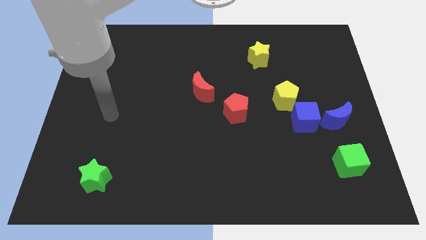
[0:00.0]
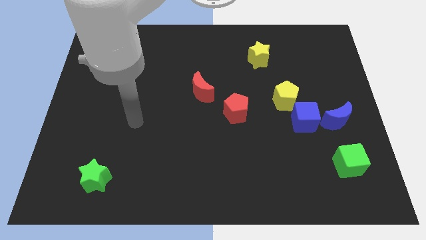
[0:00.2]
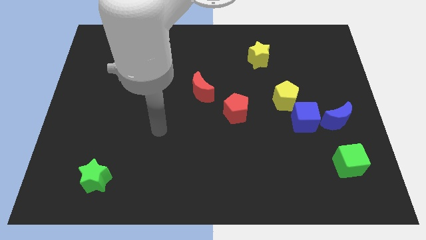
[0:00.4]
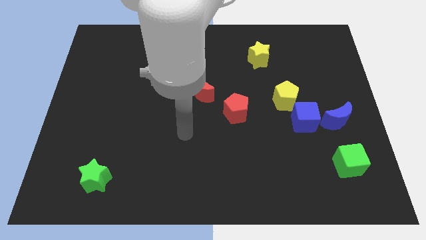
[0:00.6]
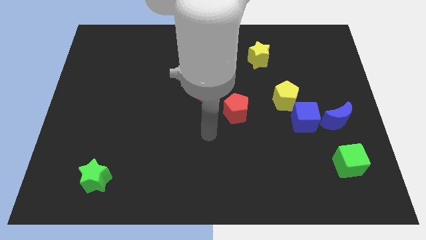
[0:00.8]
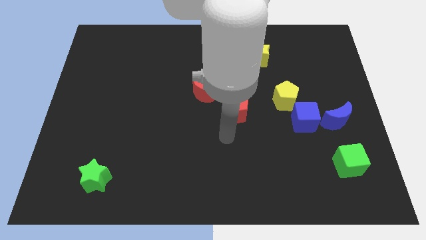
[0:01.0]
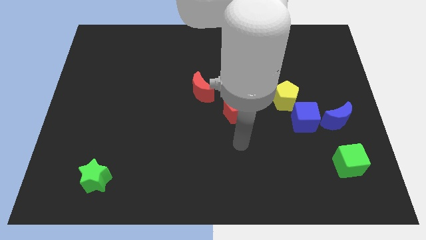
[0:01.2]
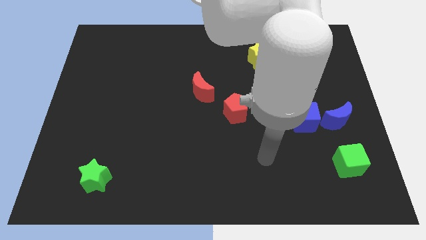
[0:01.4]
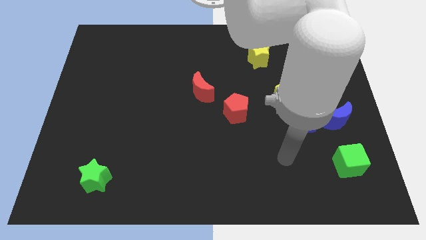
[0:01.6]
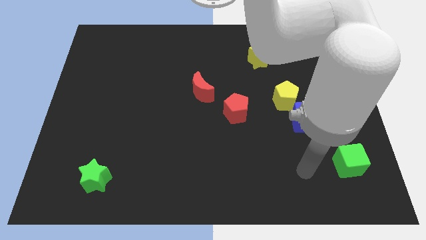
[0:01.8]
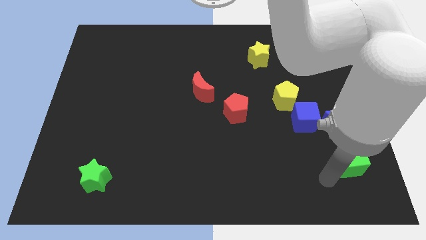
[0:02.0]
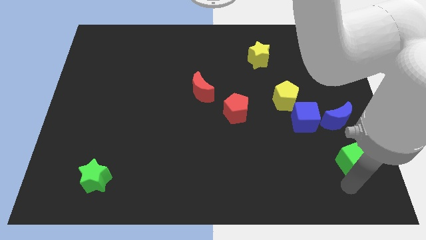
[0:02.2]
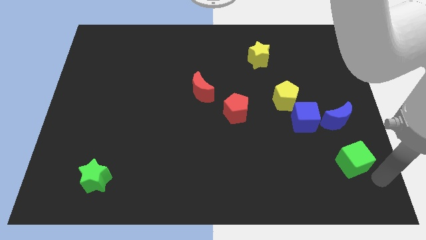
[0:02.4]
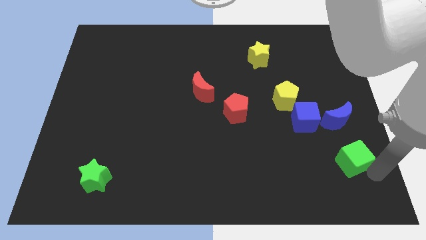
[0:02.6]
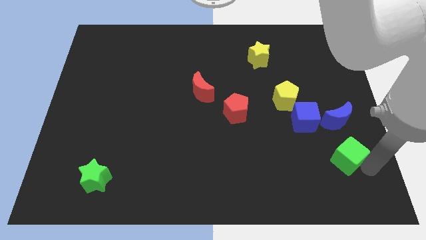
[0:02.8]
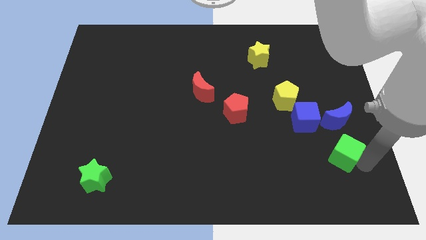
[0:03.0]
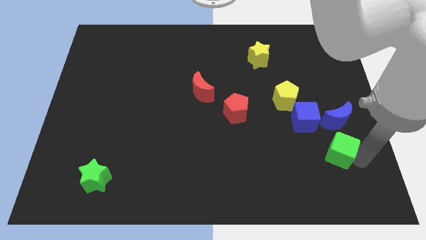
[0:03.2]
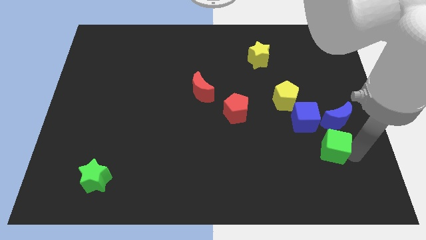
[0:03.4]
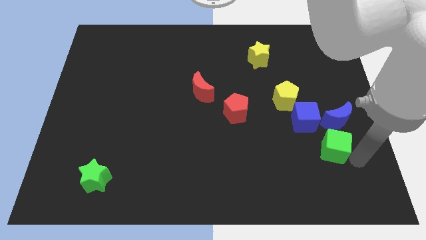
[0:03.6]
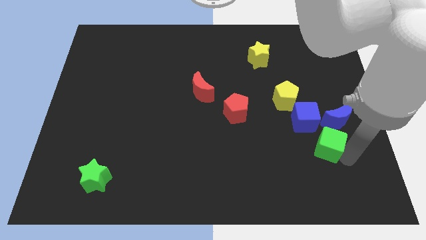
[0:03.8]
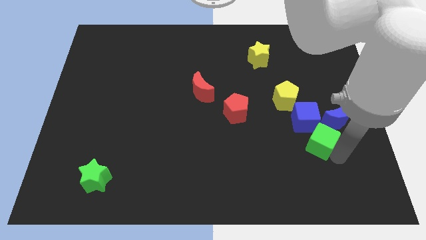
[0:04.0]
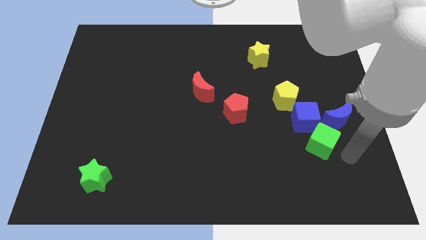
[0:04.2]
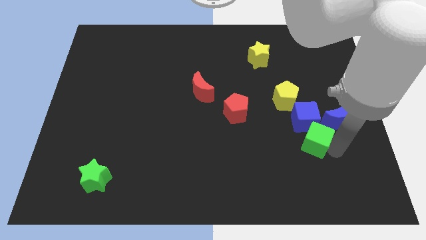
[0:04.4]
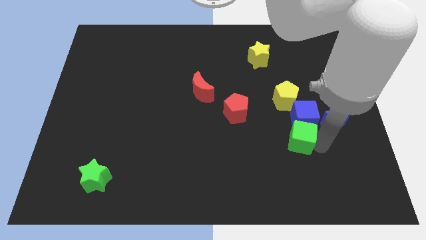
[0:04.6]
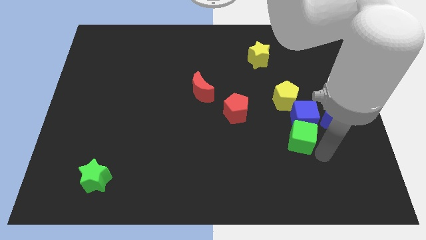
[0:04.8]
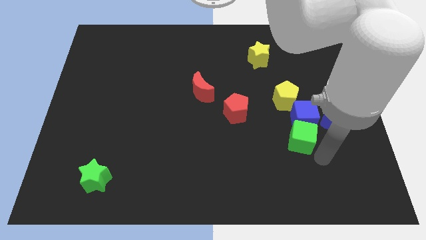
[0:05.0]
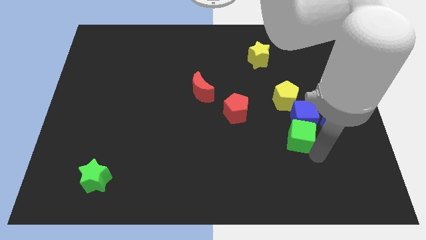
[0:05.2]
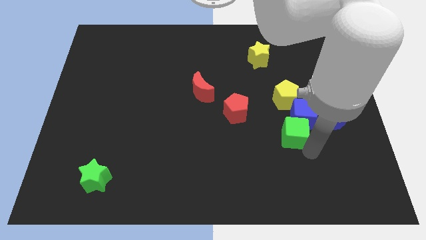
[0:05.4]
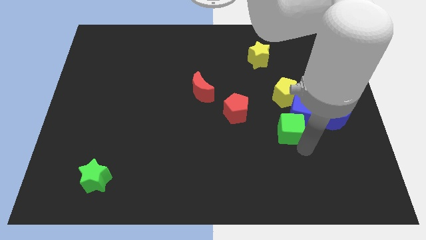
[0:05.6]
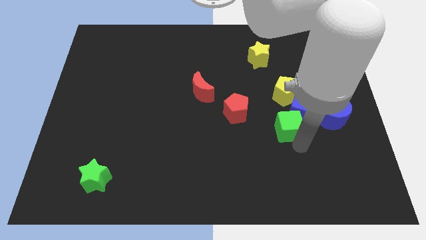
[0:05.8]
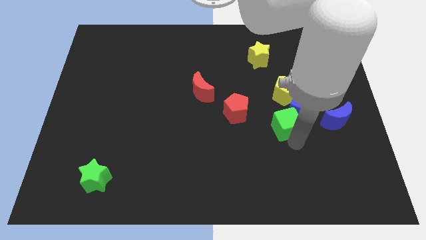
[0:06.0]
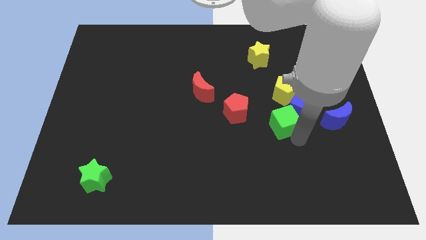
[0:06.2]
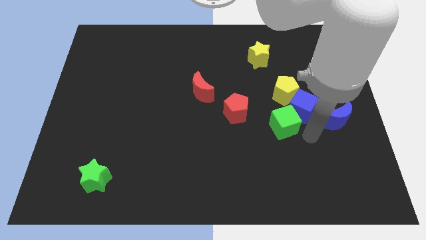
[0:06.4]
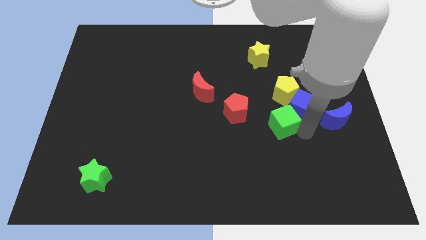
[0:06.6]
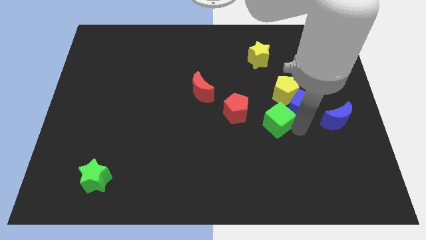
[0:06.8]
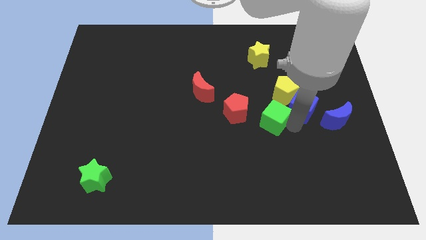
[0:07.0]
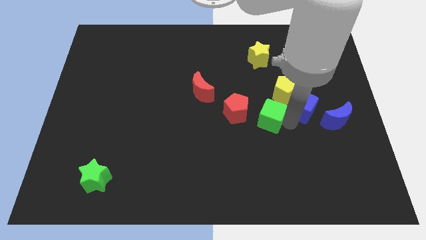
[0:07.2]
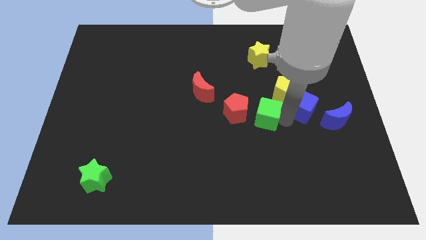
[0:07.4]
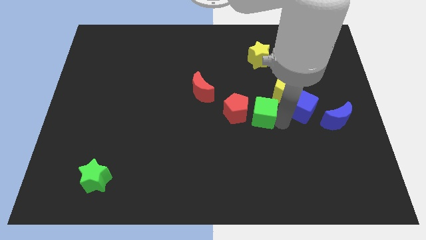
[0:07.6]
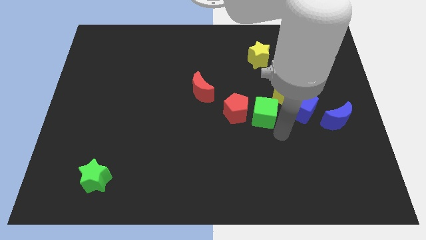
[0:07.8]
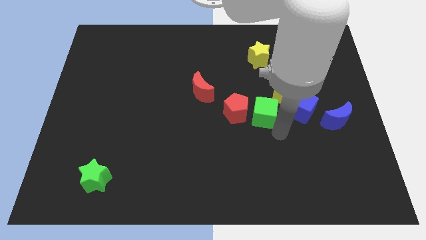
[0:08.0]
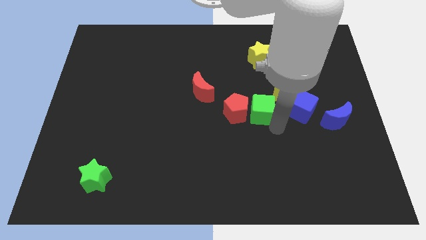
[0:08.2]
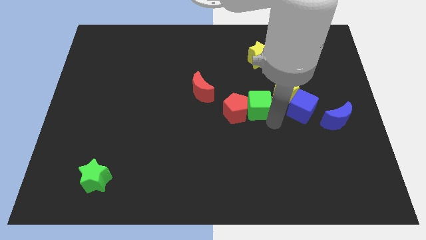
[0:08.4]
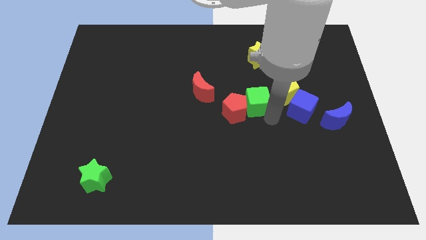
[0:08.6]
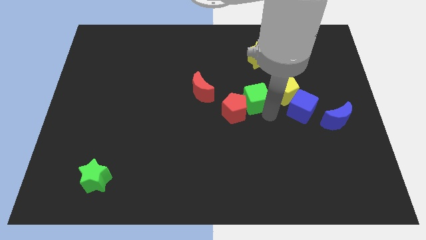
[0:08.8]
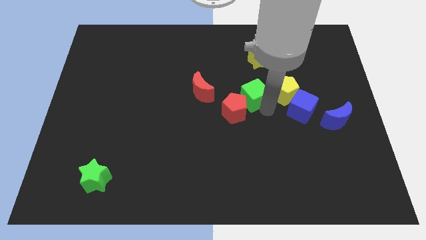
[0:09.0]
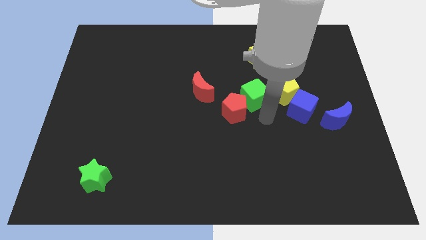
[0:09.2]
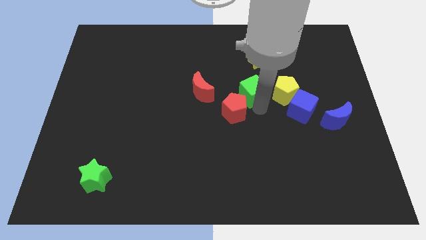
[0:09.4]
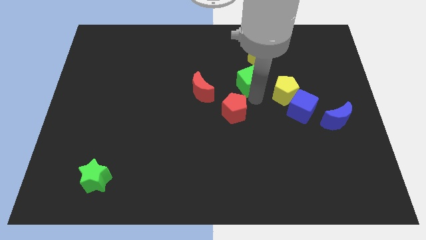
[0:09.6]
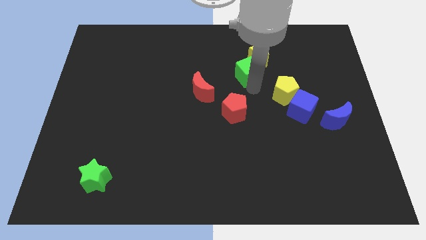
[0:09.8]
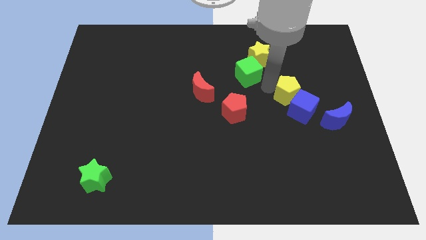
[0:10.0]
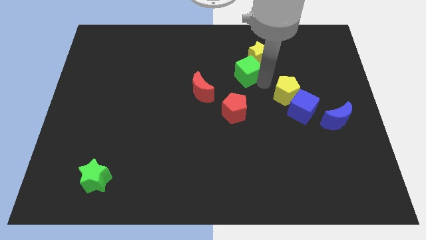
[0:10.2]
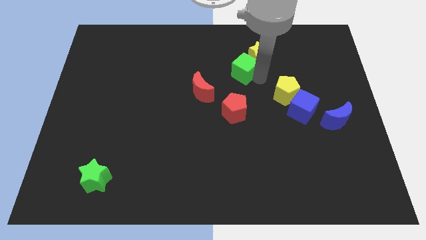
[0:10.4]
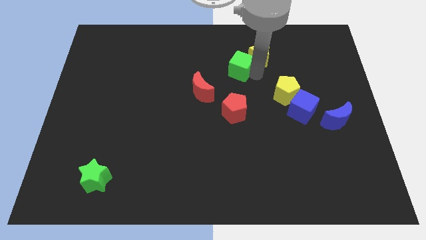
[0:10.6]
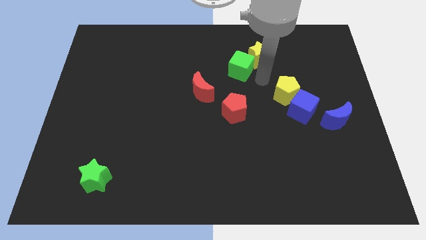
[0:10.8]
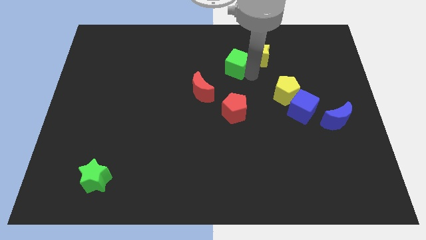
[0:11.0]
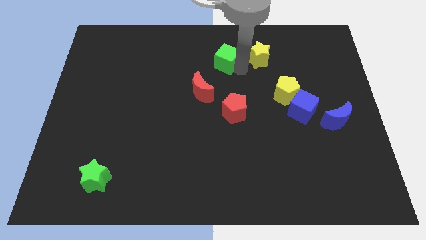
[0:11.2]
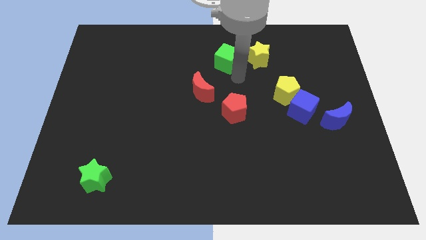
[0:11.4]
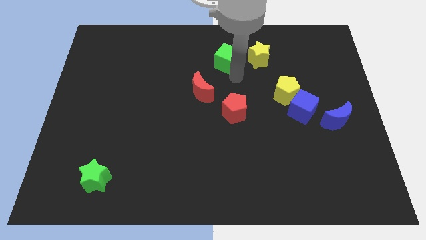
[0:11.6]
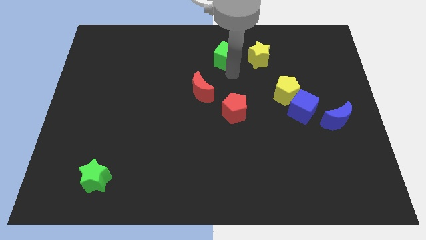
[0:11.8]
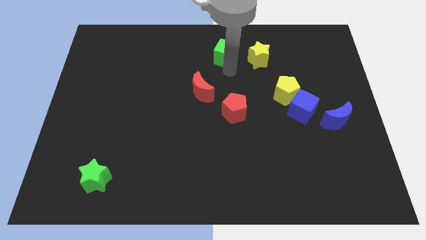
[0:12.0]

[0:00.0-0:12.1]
slide the green cube to the top side
